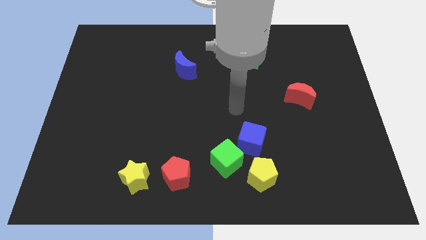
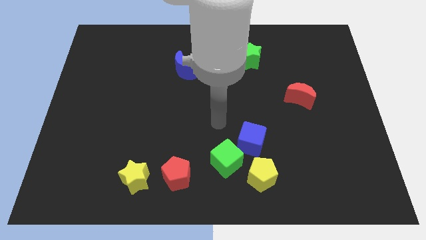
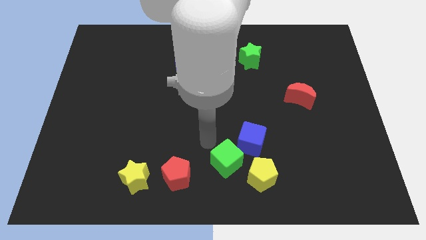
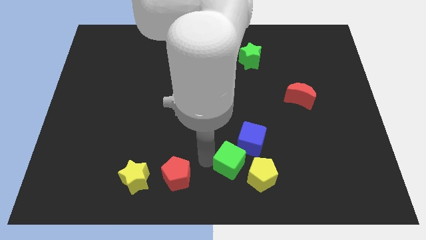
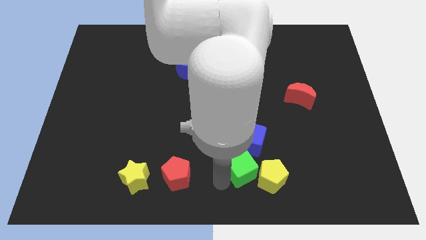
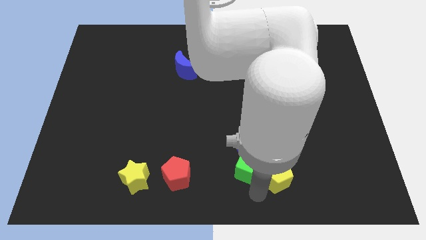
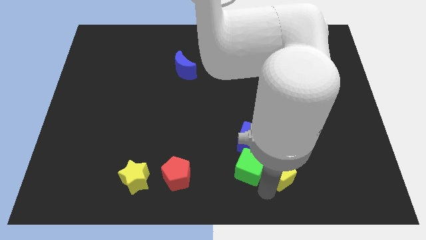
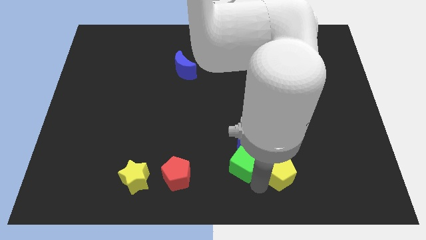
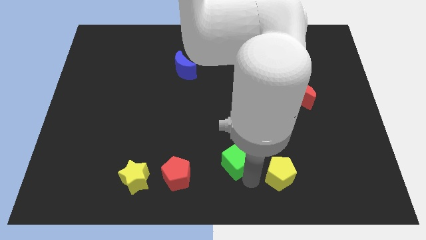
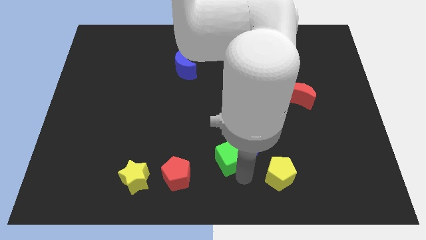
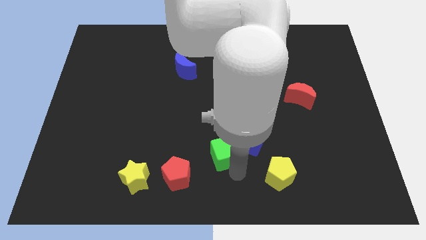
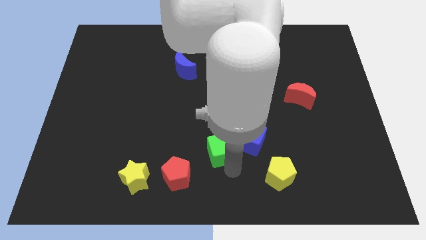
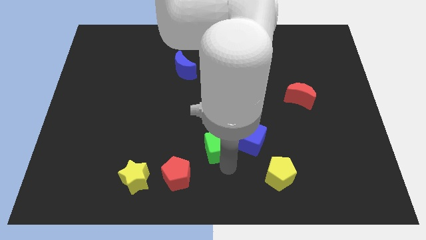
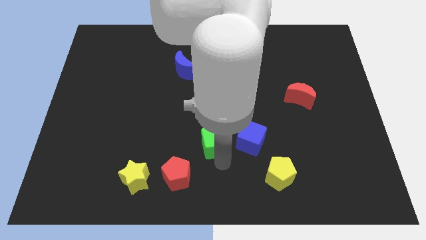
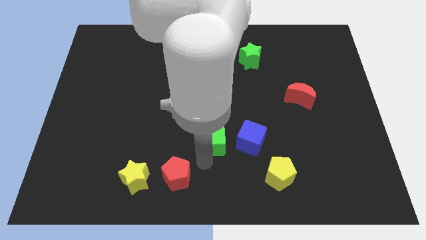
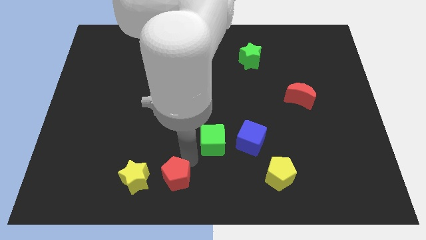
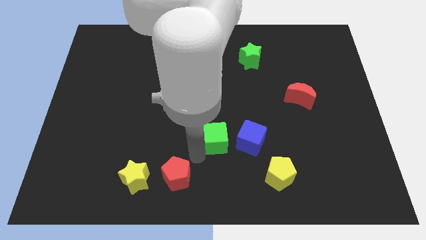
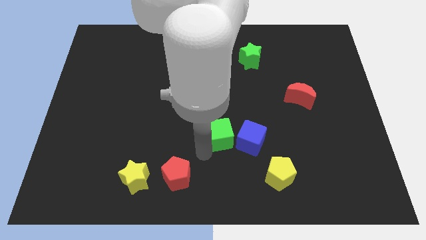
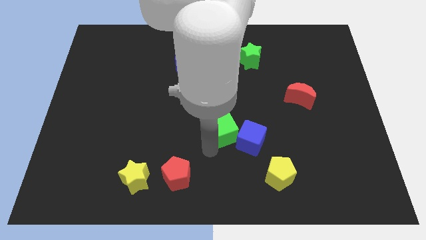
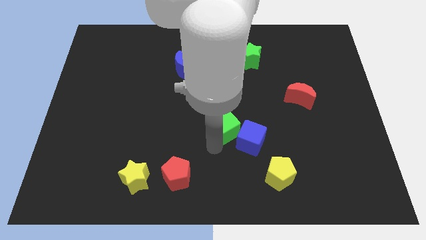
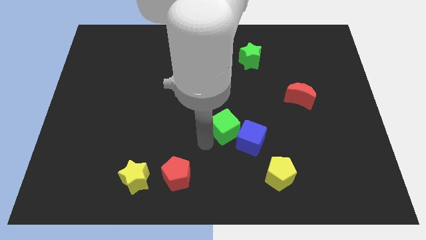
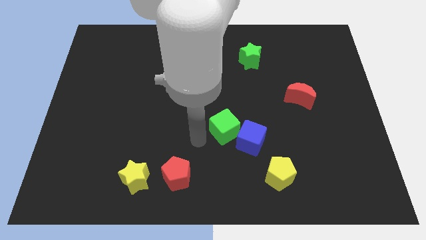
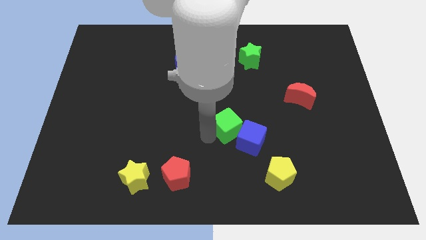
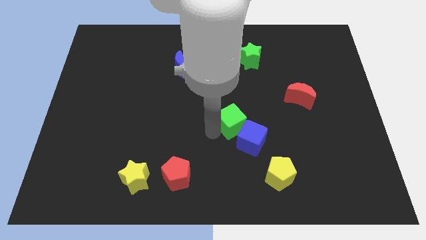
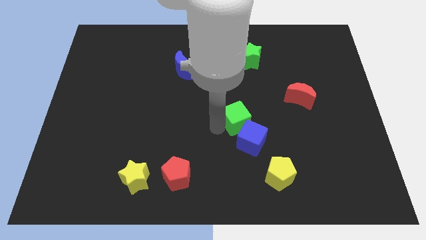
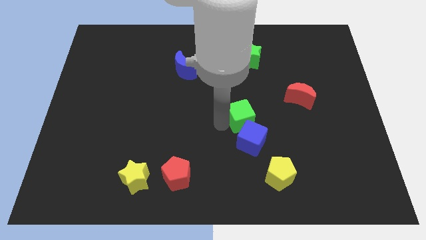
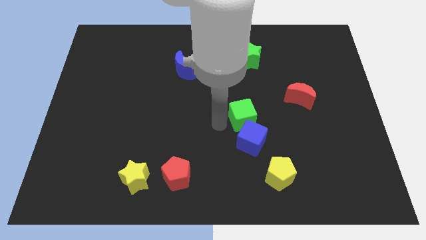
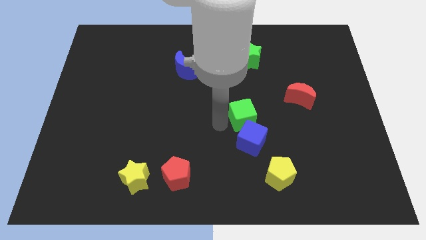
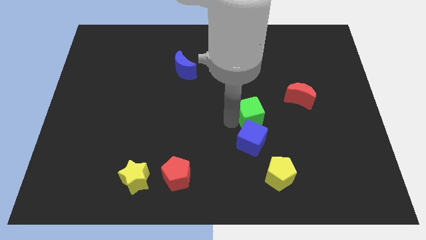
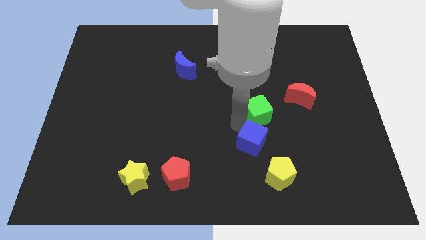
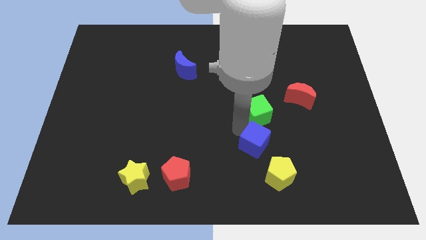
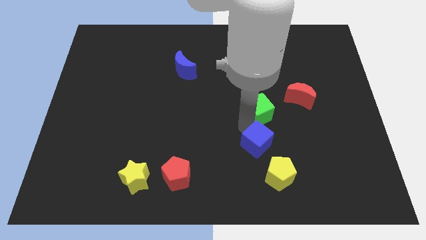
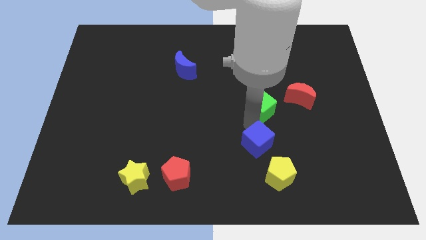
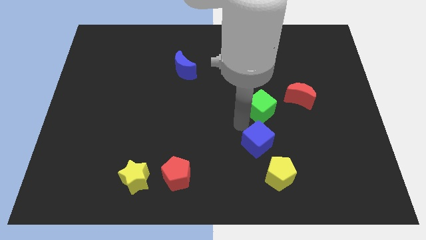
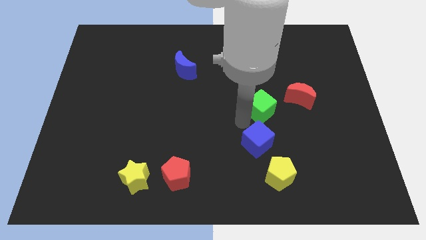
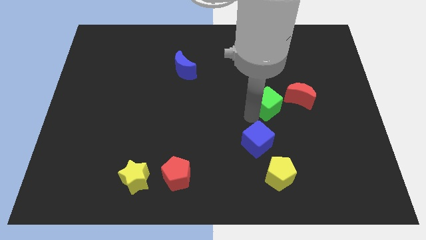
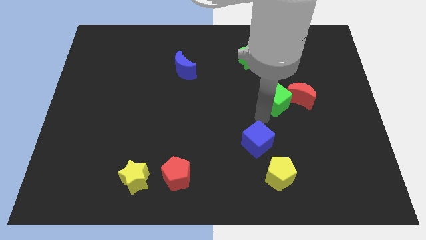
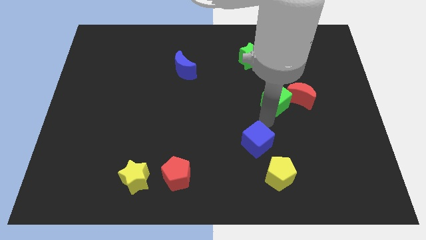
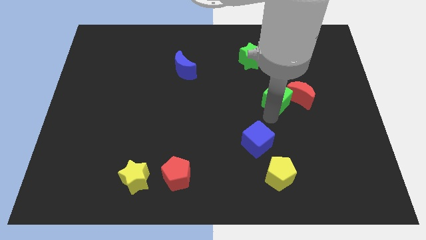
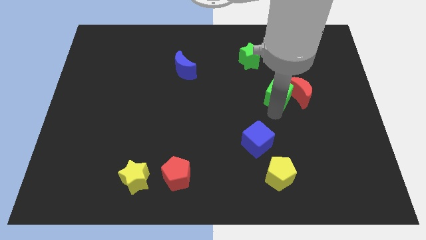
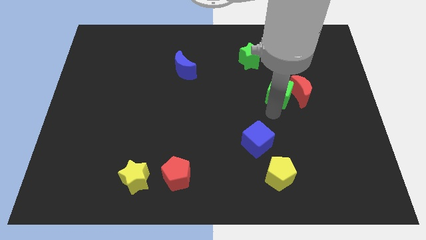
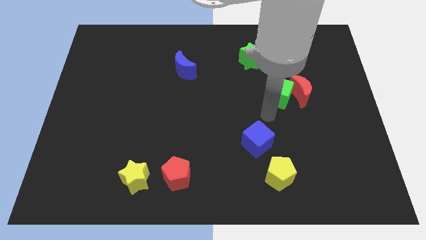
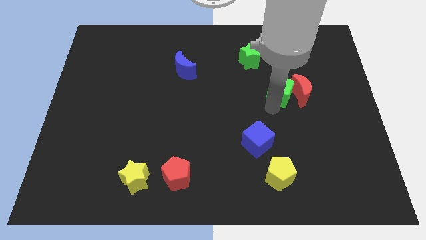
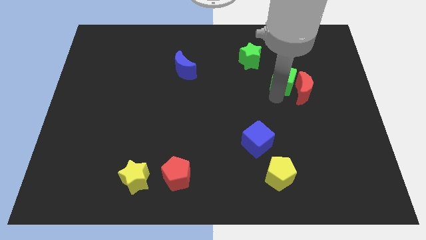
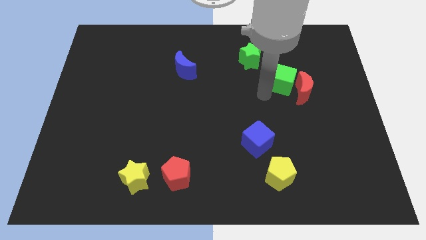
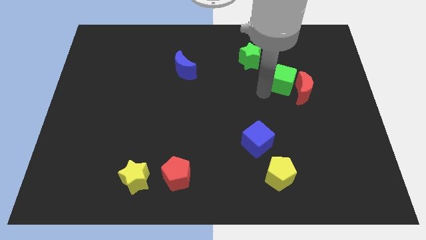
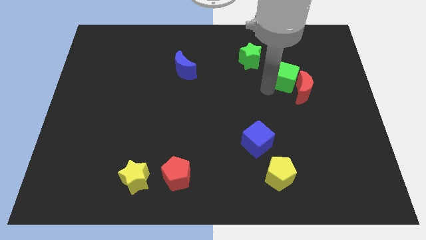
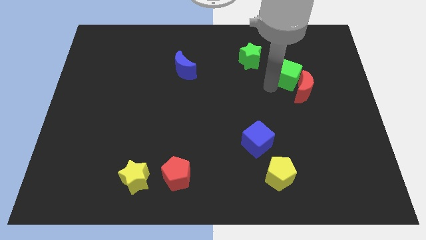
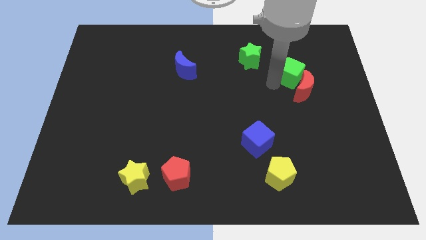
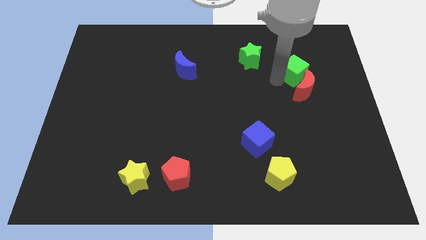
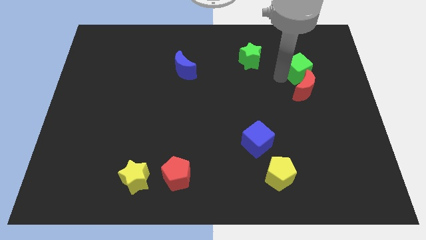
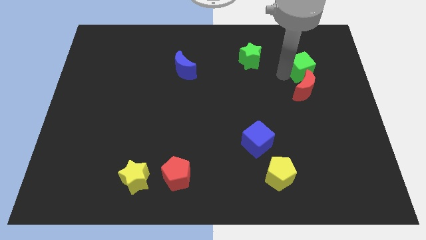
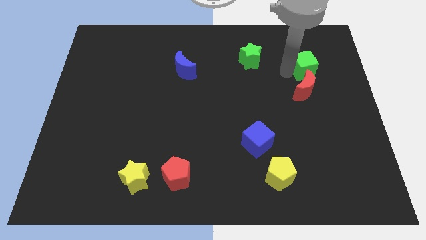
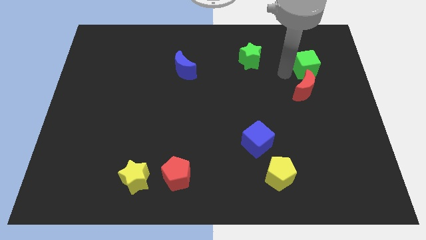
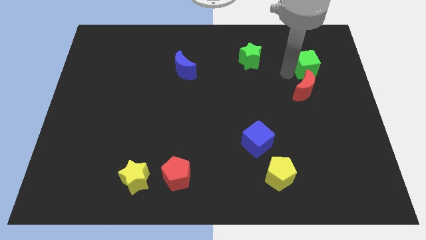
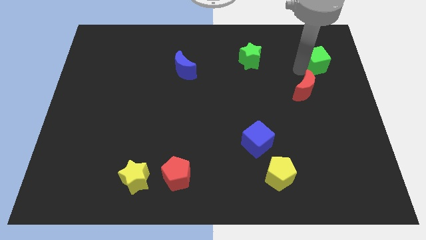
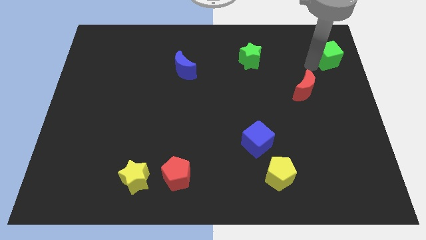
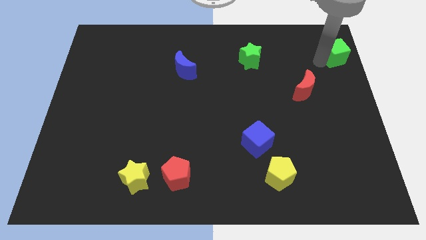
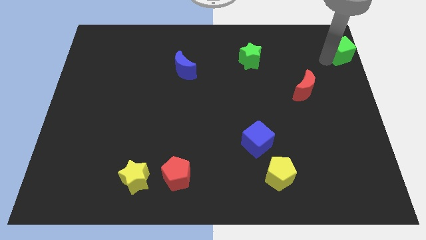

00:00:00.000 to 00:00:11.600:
put the green cube to the upper right corner
